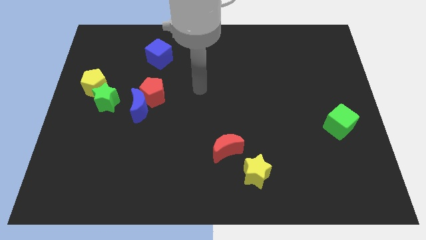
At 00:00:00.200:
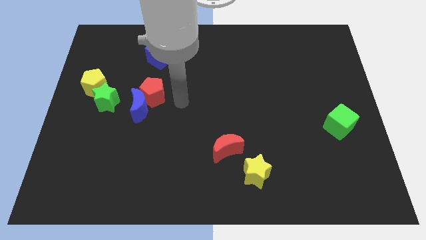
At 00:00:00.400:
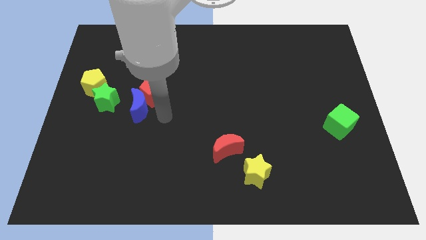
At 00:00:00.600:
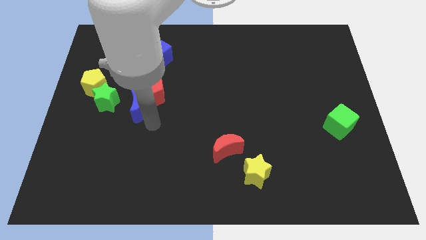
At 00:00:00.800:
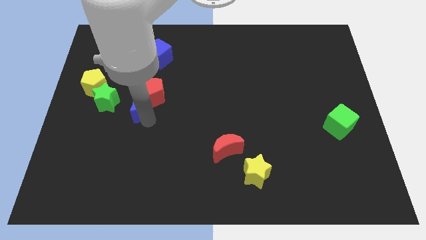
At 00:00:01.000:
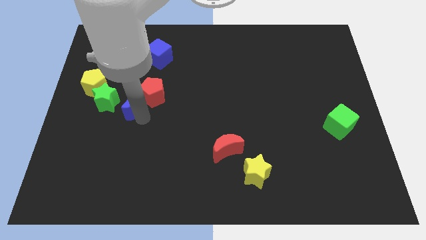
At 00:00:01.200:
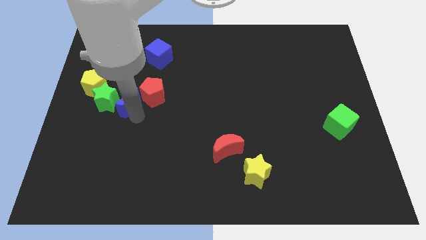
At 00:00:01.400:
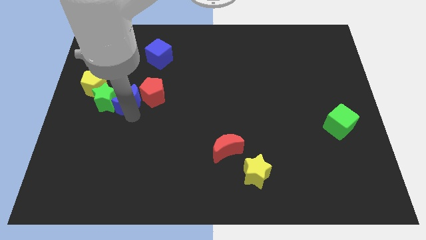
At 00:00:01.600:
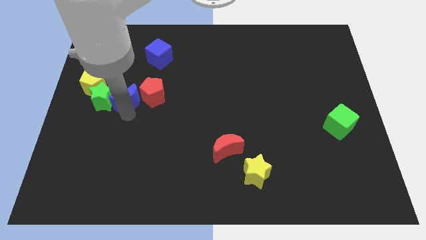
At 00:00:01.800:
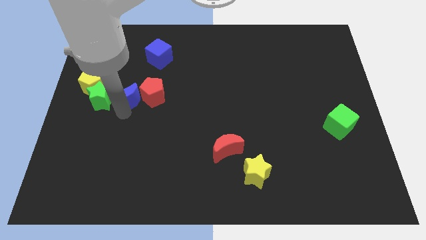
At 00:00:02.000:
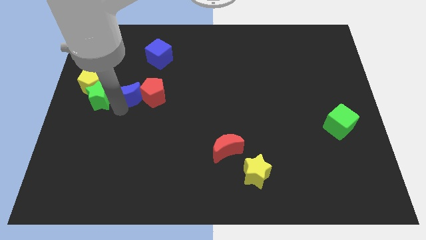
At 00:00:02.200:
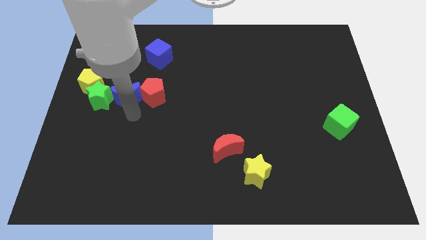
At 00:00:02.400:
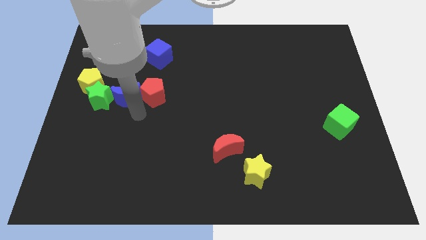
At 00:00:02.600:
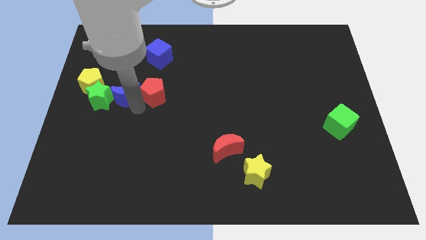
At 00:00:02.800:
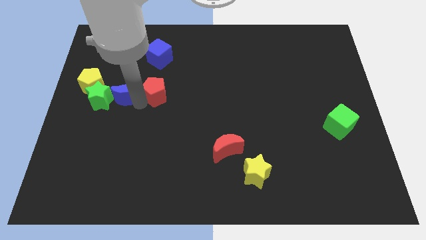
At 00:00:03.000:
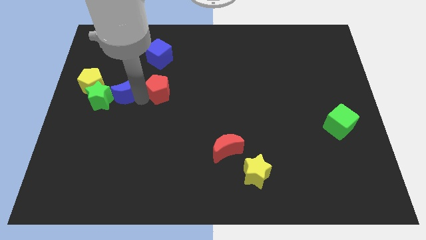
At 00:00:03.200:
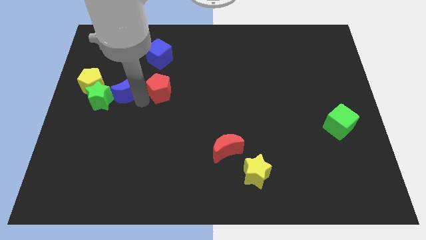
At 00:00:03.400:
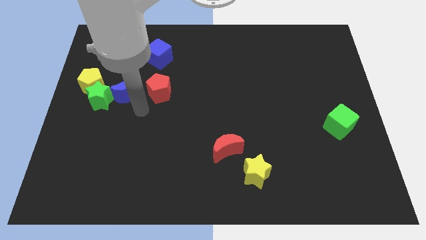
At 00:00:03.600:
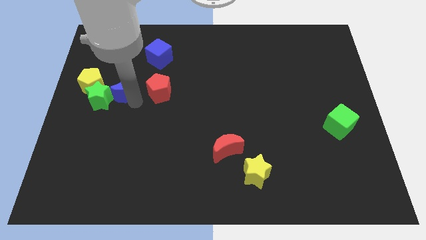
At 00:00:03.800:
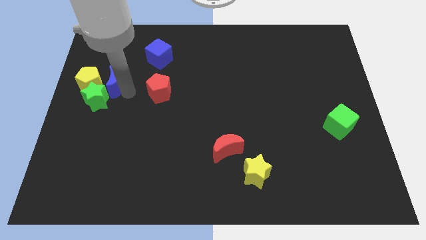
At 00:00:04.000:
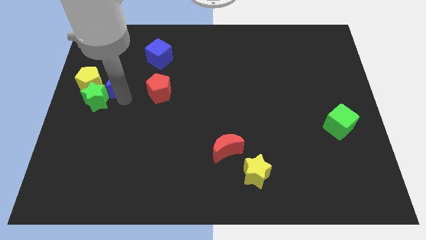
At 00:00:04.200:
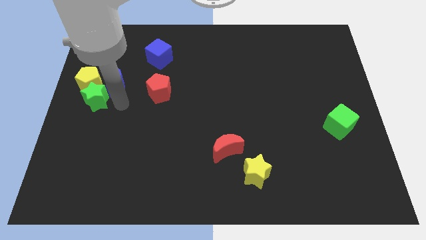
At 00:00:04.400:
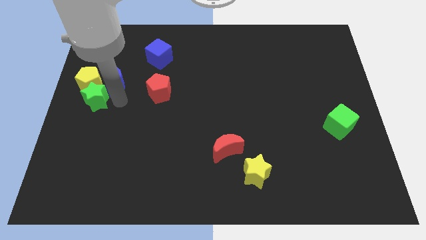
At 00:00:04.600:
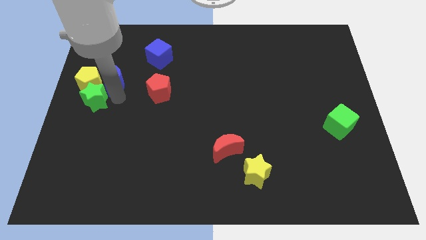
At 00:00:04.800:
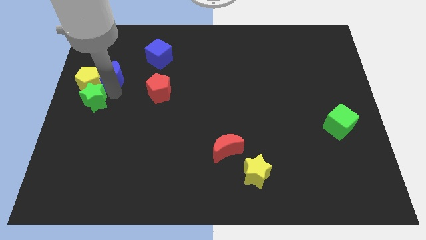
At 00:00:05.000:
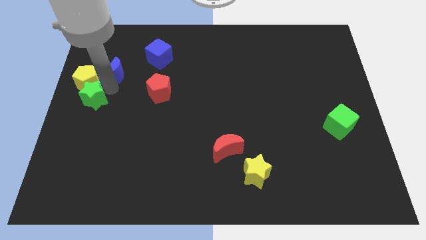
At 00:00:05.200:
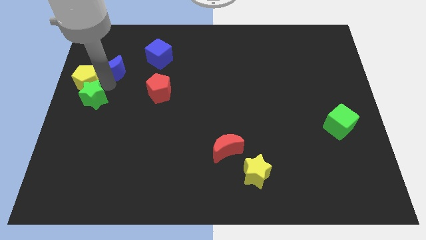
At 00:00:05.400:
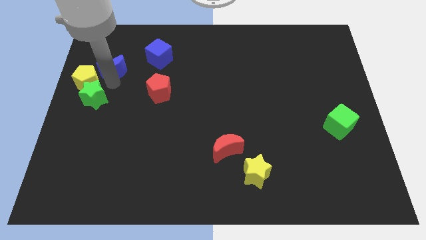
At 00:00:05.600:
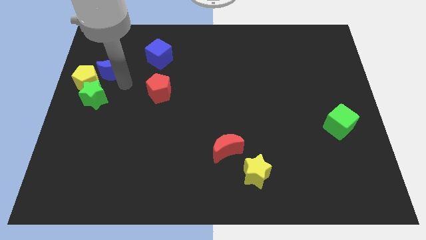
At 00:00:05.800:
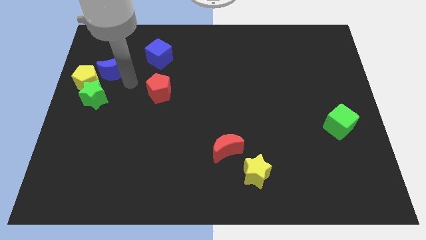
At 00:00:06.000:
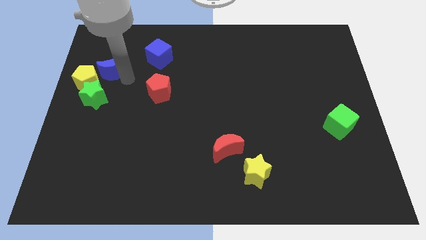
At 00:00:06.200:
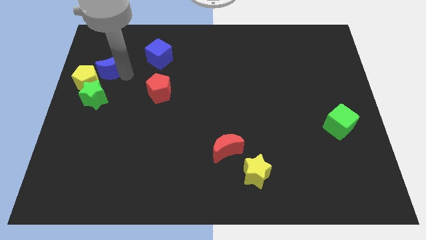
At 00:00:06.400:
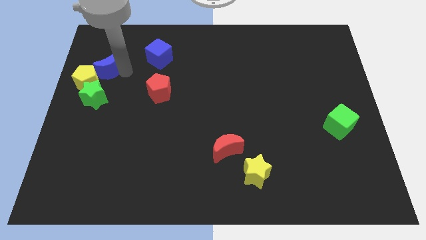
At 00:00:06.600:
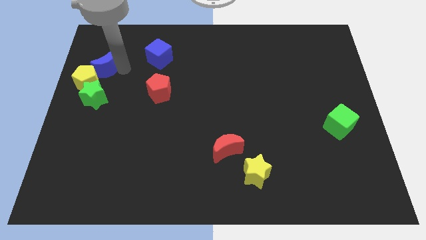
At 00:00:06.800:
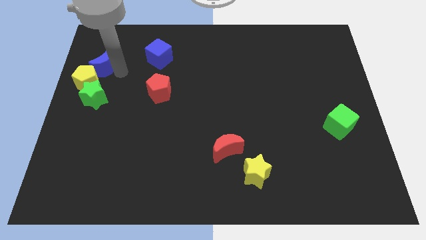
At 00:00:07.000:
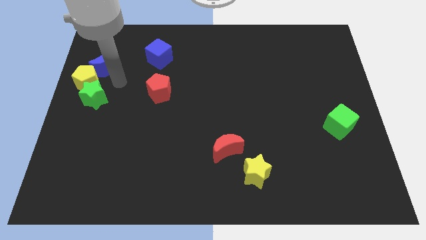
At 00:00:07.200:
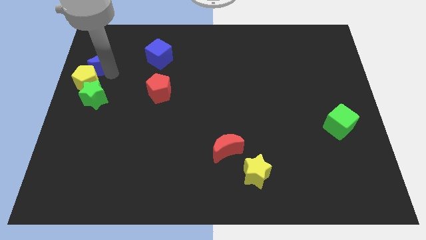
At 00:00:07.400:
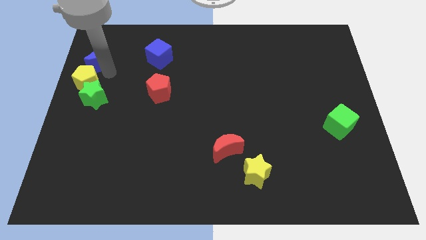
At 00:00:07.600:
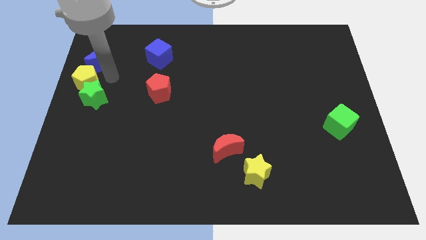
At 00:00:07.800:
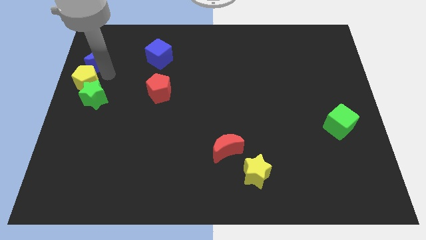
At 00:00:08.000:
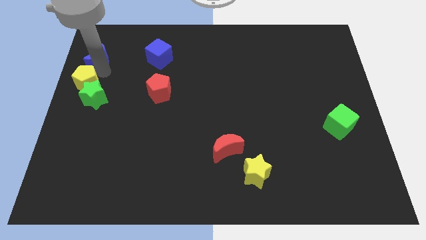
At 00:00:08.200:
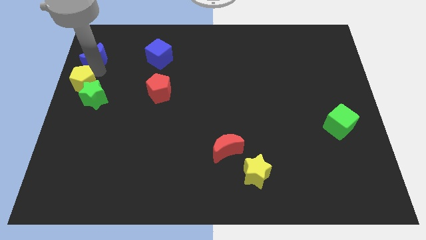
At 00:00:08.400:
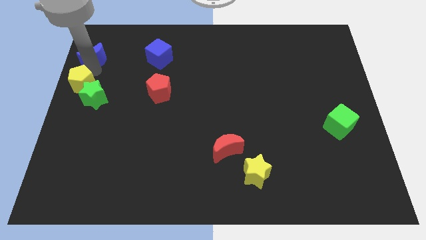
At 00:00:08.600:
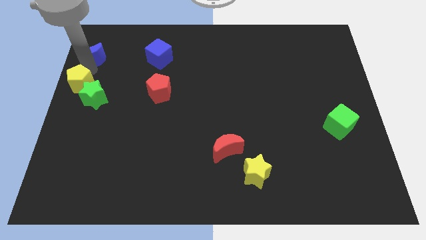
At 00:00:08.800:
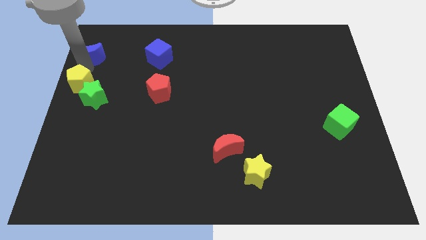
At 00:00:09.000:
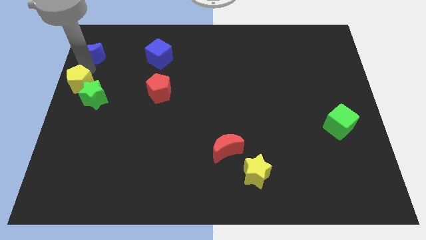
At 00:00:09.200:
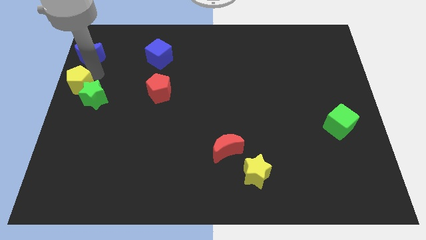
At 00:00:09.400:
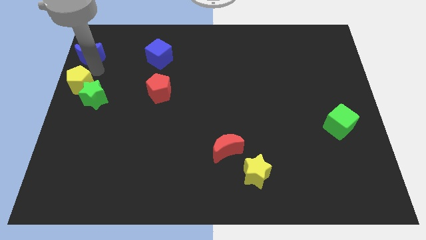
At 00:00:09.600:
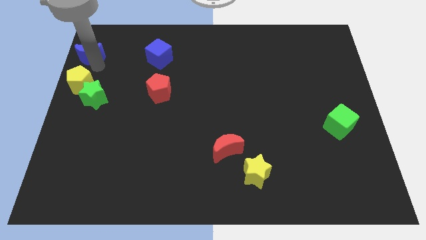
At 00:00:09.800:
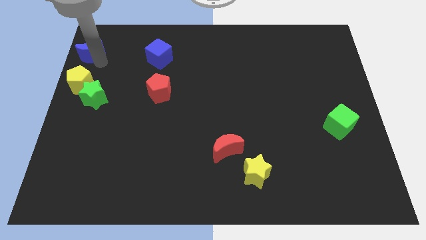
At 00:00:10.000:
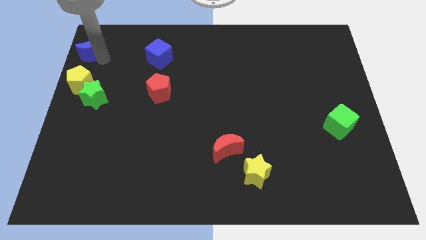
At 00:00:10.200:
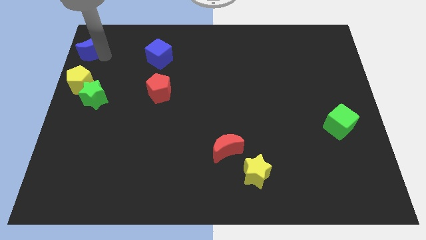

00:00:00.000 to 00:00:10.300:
put the blue moon to the top left

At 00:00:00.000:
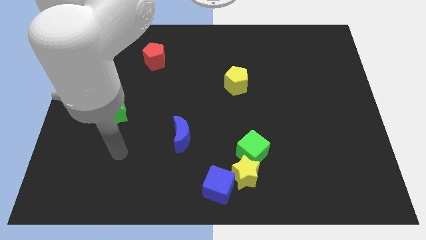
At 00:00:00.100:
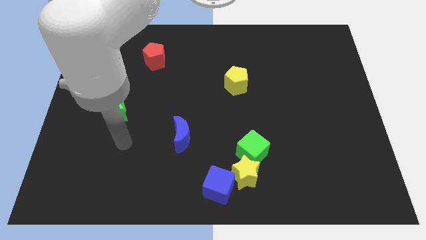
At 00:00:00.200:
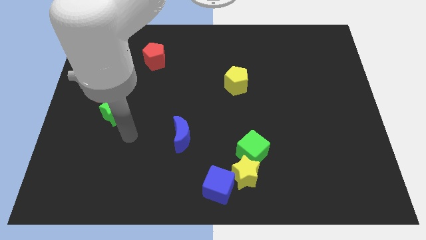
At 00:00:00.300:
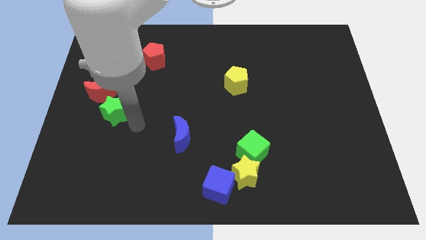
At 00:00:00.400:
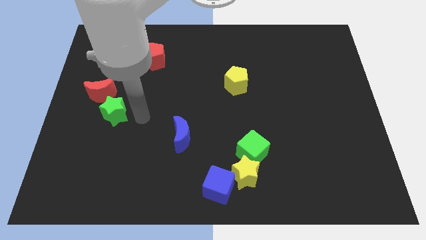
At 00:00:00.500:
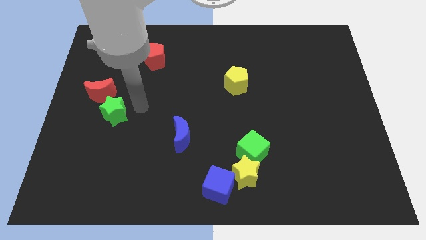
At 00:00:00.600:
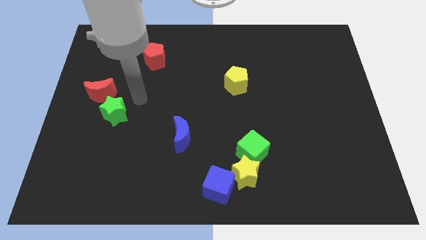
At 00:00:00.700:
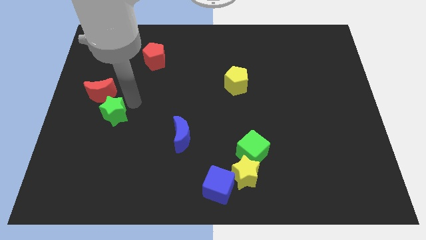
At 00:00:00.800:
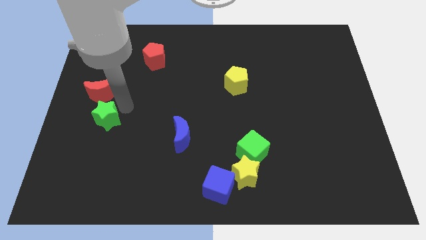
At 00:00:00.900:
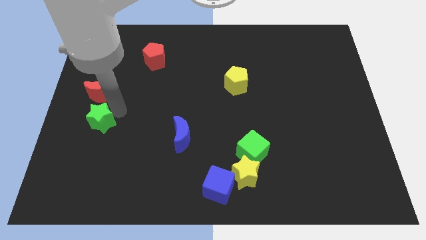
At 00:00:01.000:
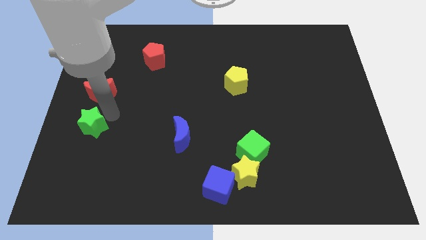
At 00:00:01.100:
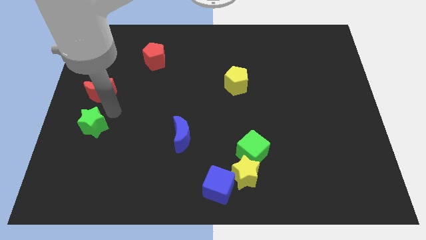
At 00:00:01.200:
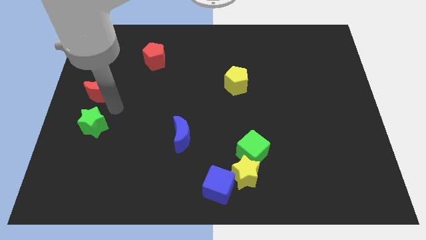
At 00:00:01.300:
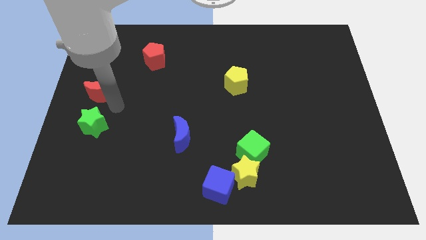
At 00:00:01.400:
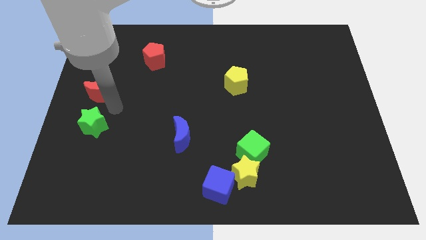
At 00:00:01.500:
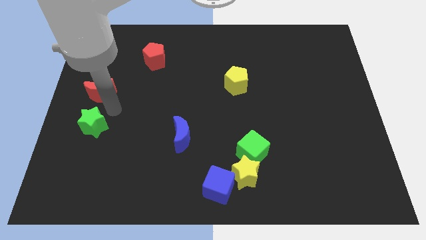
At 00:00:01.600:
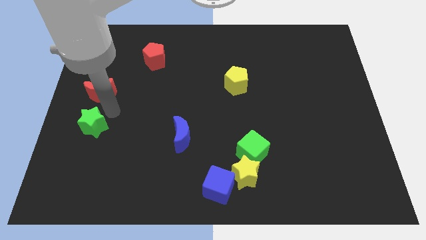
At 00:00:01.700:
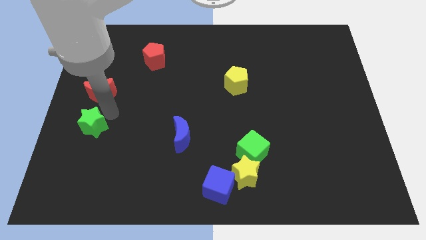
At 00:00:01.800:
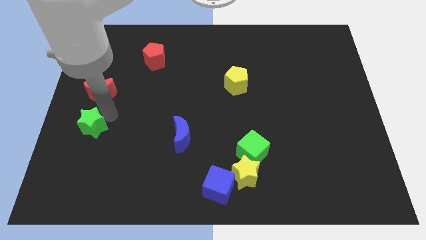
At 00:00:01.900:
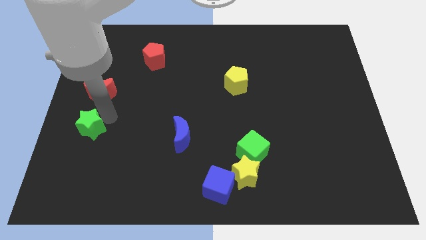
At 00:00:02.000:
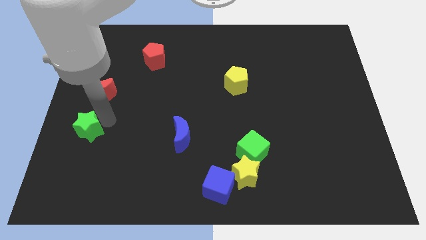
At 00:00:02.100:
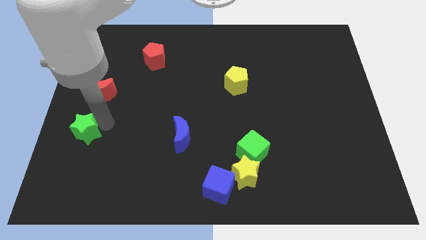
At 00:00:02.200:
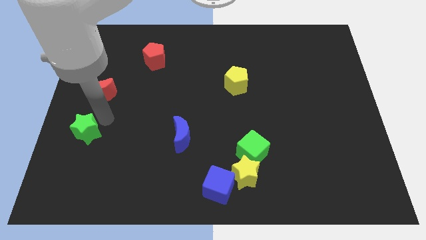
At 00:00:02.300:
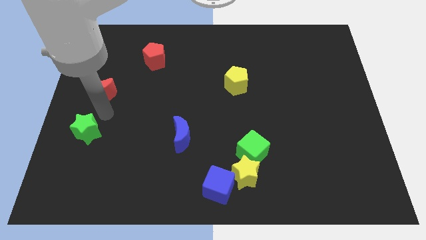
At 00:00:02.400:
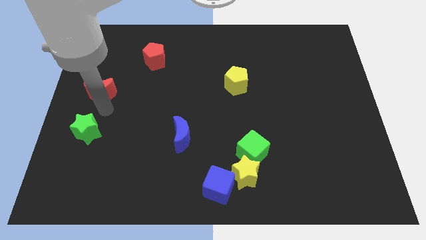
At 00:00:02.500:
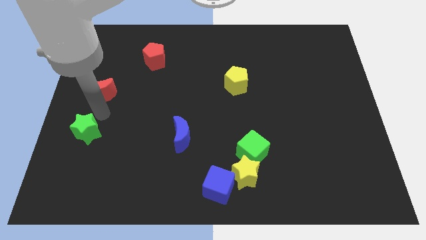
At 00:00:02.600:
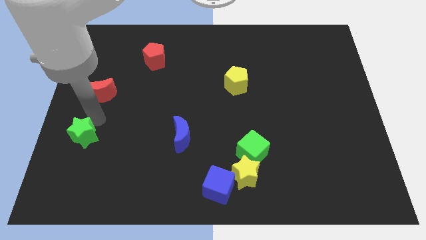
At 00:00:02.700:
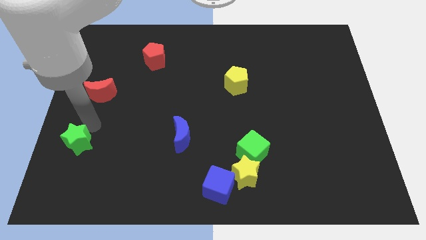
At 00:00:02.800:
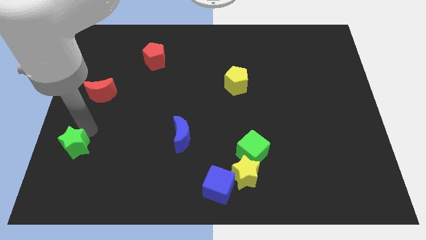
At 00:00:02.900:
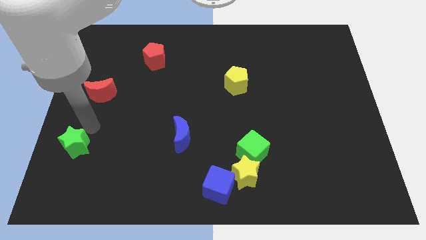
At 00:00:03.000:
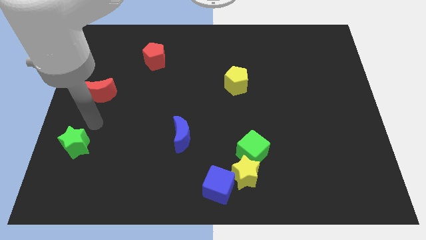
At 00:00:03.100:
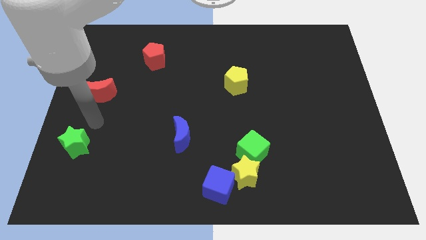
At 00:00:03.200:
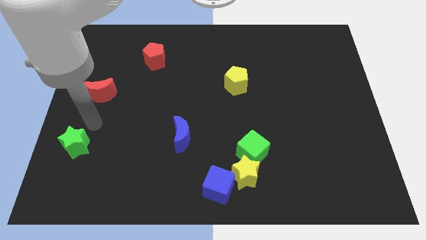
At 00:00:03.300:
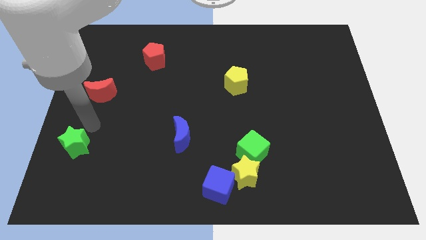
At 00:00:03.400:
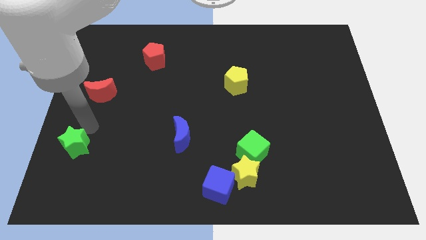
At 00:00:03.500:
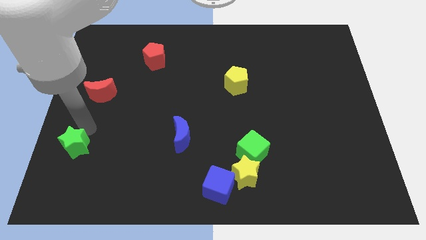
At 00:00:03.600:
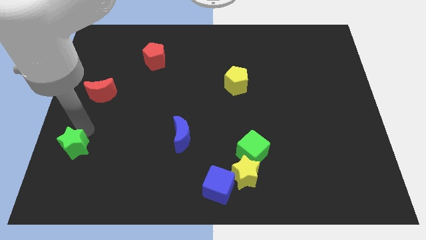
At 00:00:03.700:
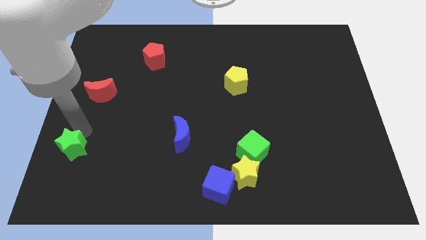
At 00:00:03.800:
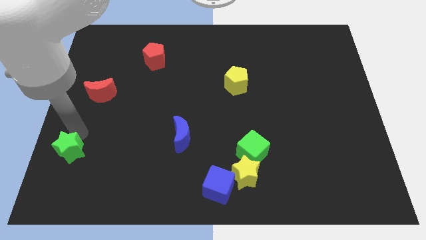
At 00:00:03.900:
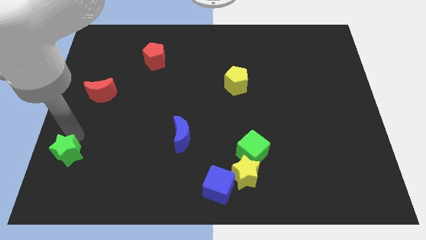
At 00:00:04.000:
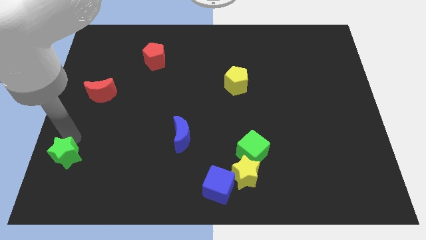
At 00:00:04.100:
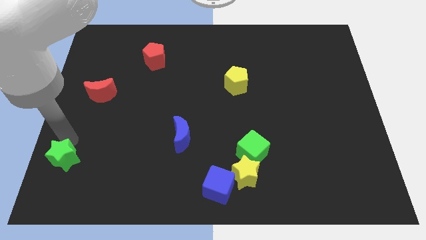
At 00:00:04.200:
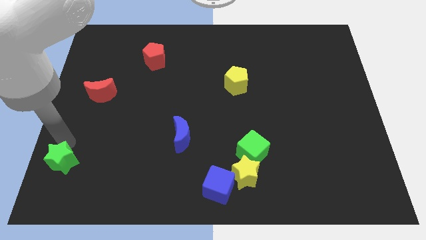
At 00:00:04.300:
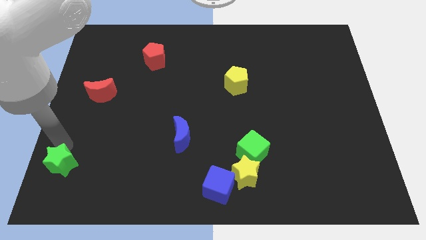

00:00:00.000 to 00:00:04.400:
push the green star to the bottom left
